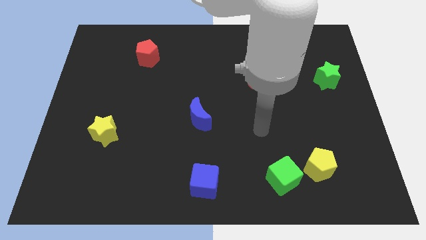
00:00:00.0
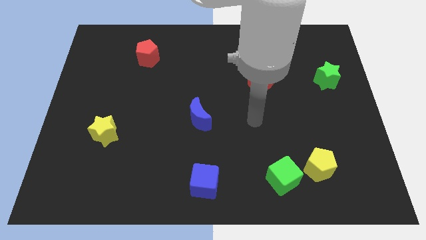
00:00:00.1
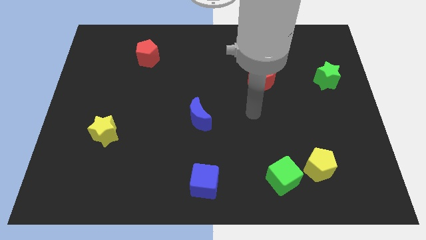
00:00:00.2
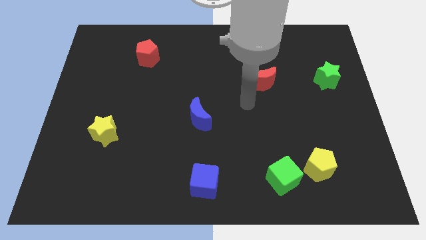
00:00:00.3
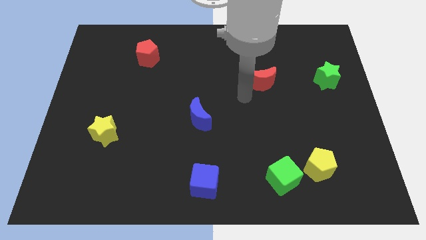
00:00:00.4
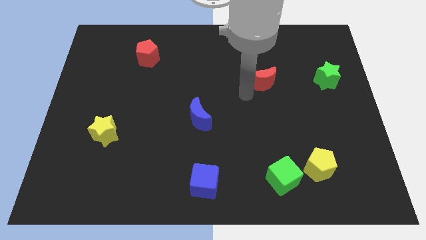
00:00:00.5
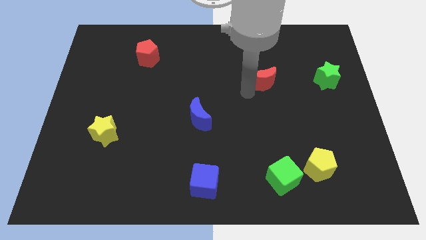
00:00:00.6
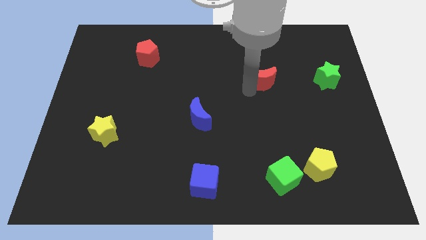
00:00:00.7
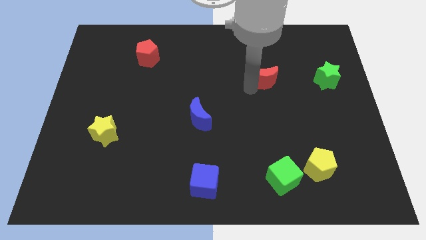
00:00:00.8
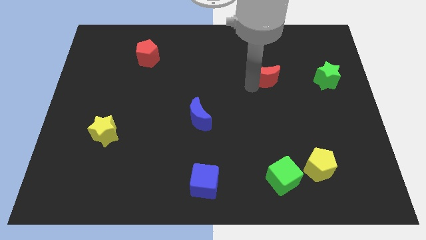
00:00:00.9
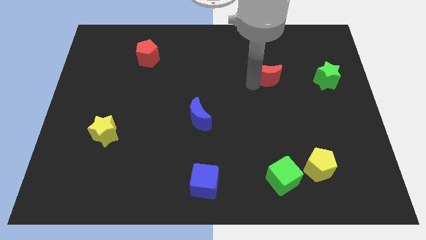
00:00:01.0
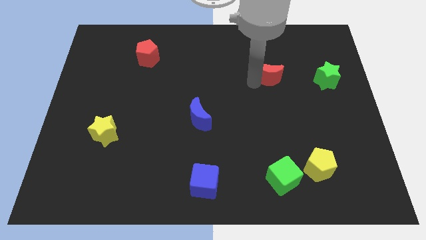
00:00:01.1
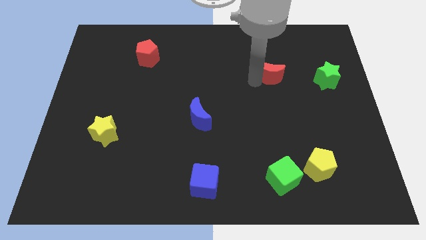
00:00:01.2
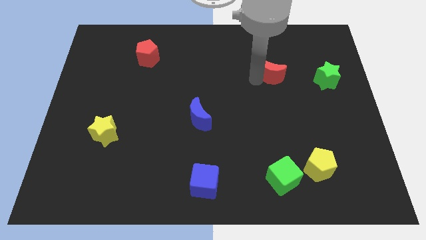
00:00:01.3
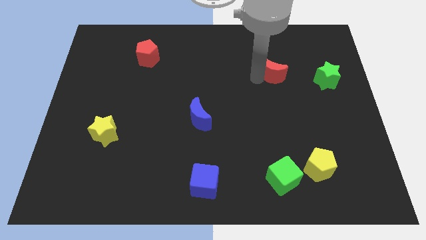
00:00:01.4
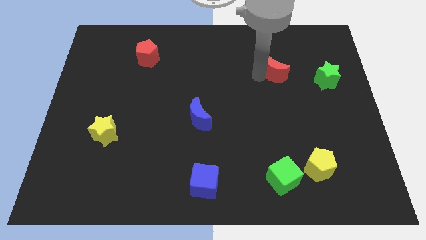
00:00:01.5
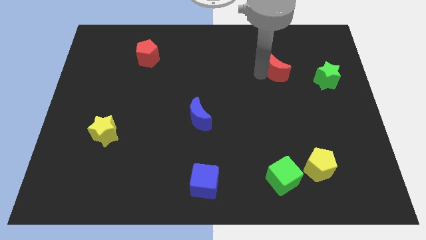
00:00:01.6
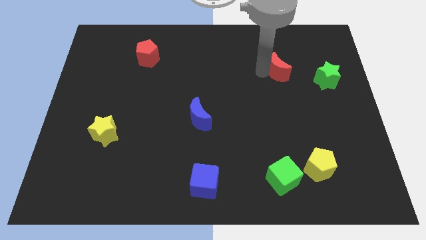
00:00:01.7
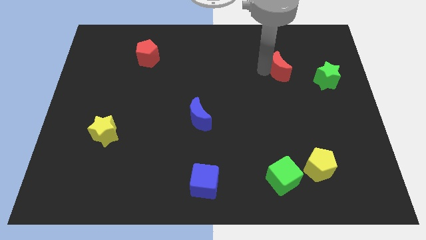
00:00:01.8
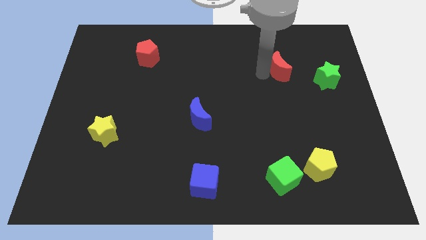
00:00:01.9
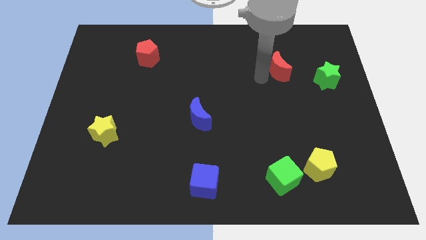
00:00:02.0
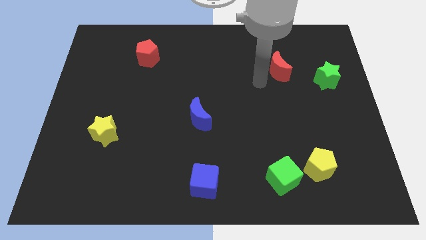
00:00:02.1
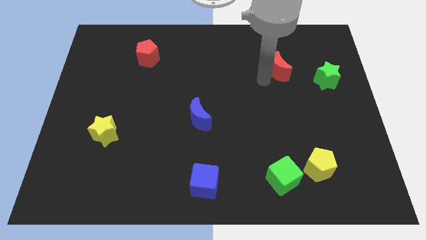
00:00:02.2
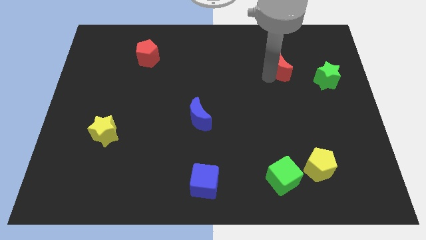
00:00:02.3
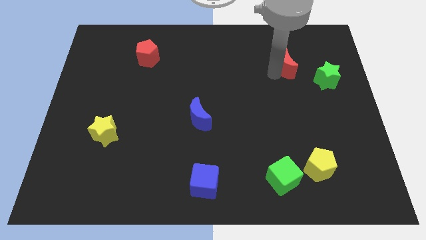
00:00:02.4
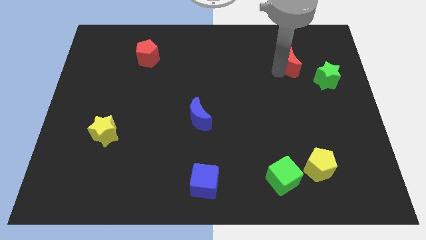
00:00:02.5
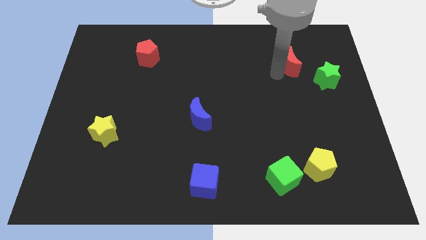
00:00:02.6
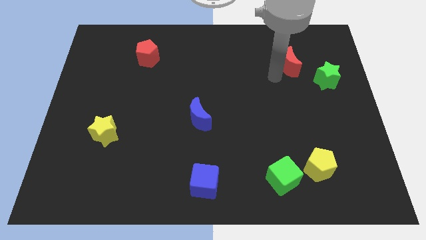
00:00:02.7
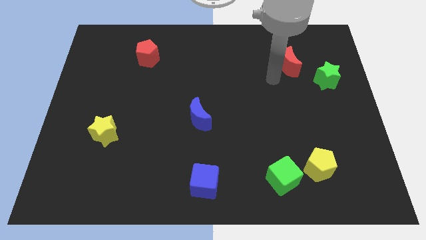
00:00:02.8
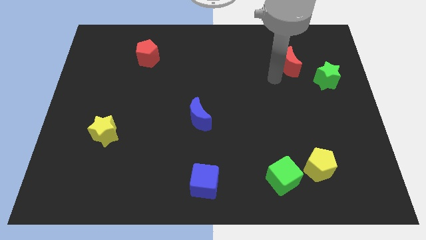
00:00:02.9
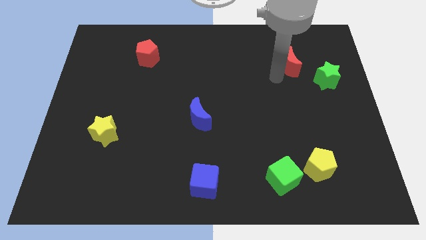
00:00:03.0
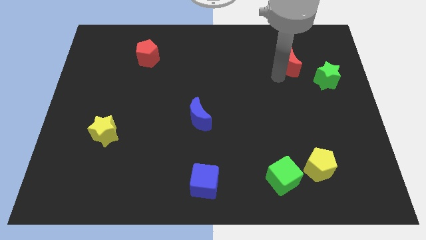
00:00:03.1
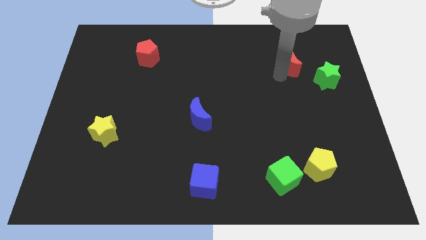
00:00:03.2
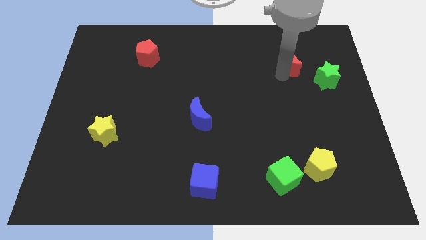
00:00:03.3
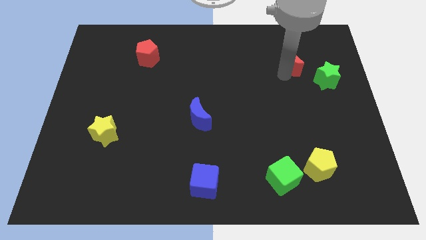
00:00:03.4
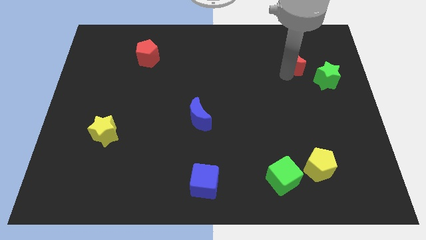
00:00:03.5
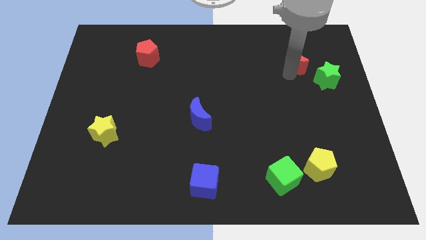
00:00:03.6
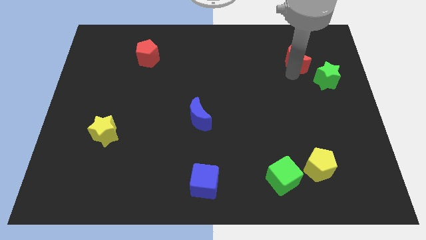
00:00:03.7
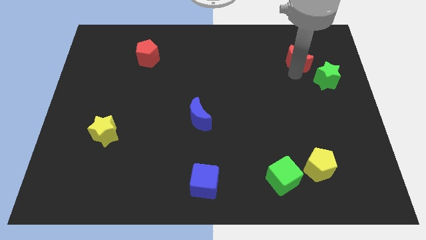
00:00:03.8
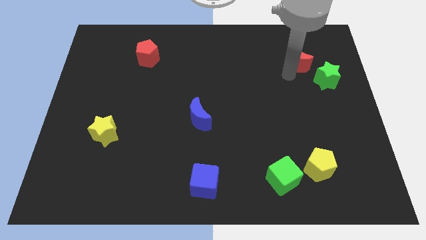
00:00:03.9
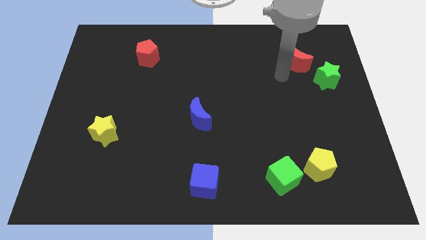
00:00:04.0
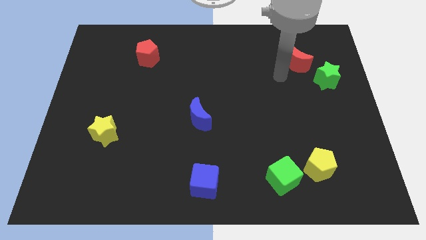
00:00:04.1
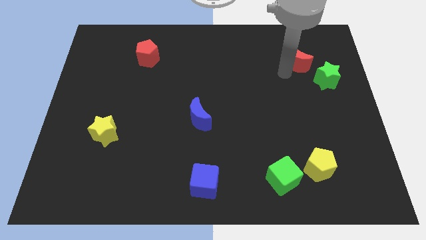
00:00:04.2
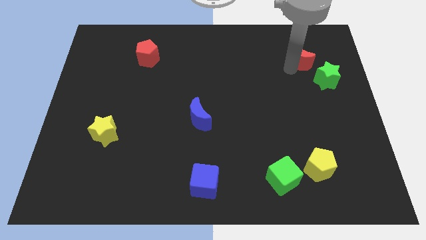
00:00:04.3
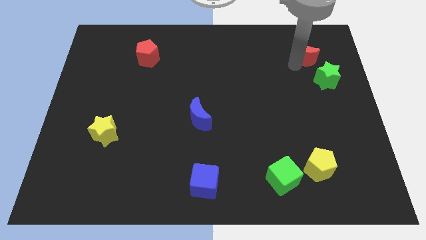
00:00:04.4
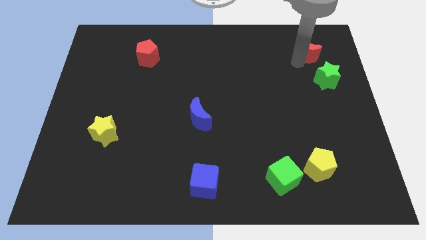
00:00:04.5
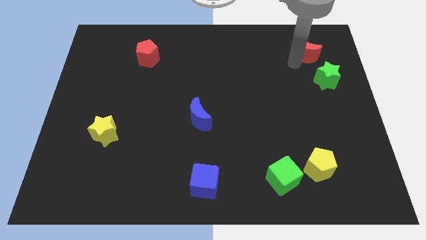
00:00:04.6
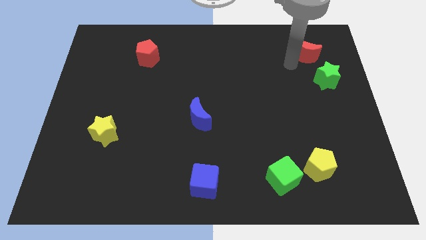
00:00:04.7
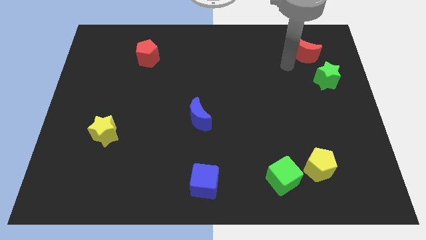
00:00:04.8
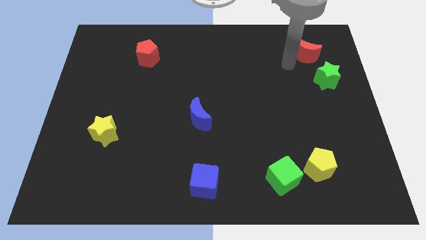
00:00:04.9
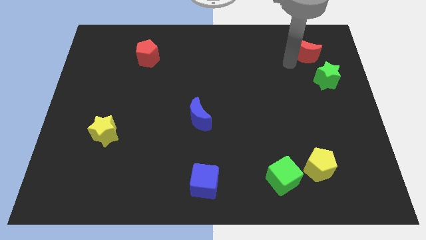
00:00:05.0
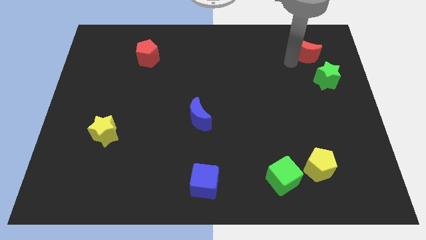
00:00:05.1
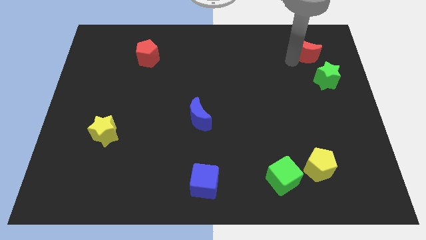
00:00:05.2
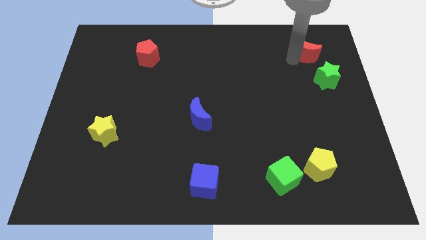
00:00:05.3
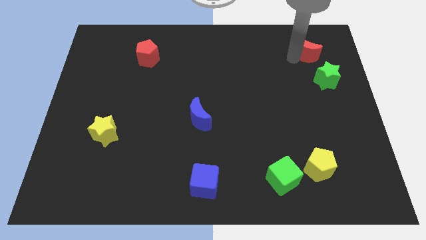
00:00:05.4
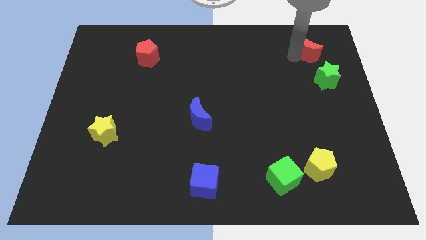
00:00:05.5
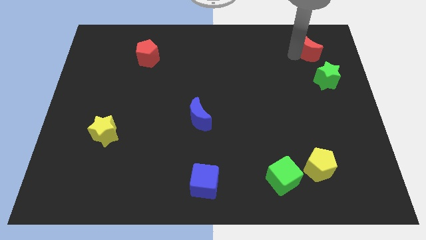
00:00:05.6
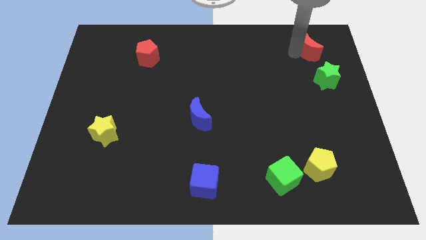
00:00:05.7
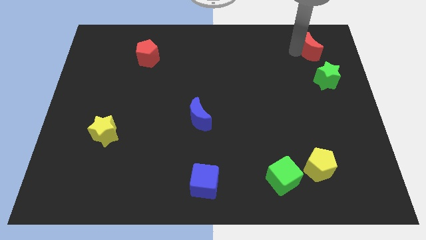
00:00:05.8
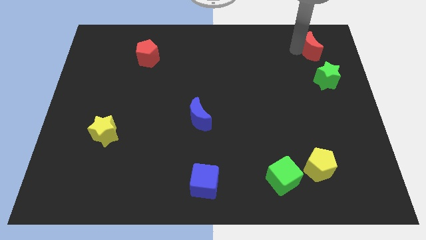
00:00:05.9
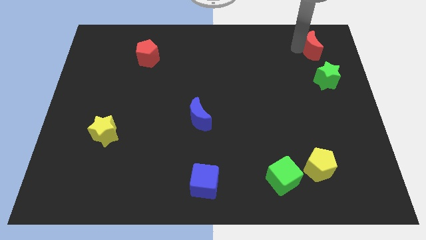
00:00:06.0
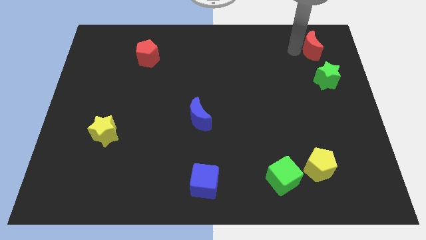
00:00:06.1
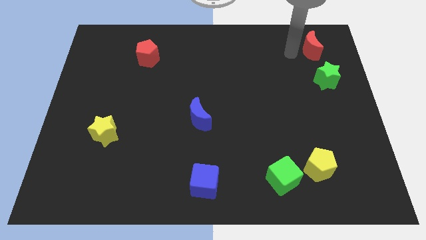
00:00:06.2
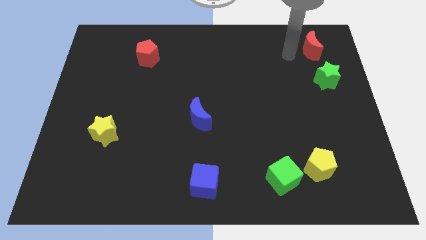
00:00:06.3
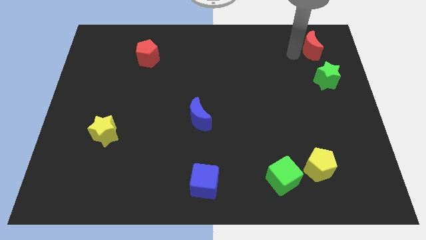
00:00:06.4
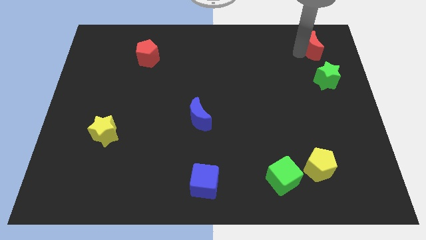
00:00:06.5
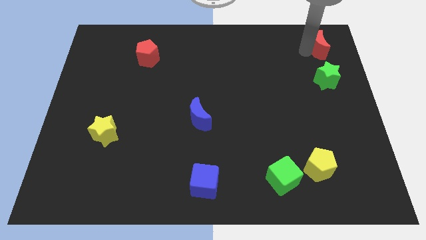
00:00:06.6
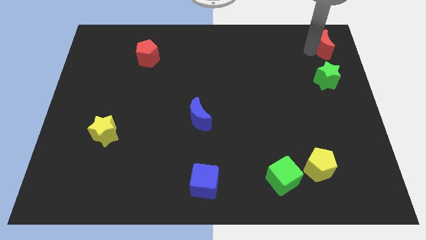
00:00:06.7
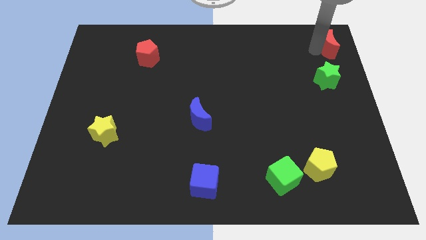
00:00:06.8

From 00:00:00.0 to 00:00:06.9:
move the red moon to the upper right corner
